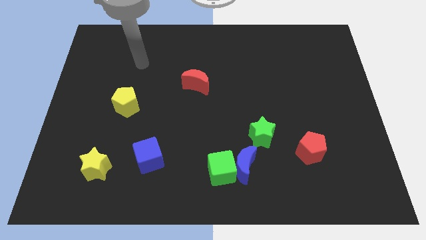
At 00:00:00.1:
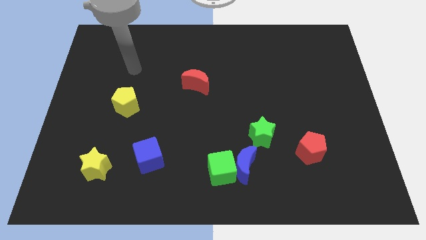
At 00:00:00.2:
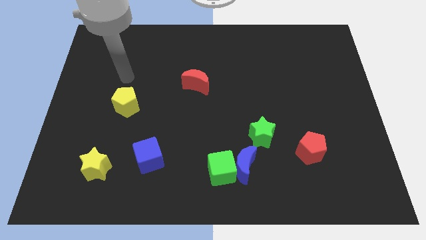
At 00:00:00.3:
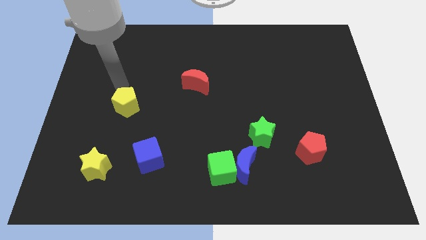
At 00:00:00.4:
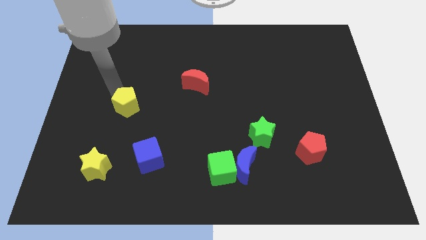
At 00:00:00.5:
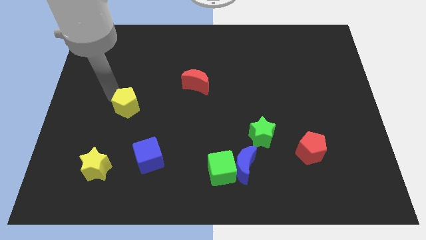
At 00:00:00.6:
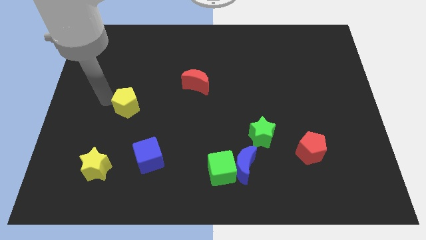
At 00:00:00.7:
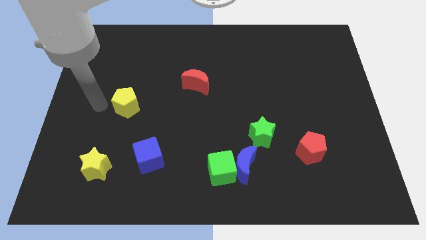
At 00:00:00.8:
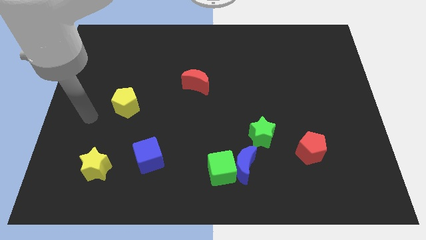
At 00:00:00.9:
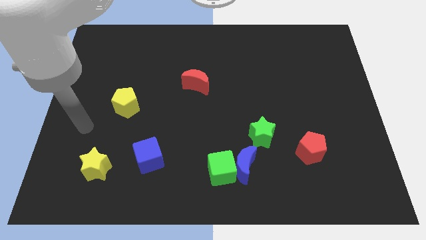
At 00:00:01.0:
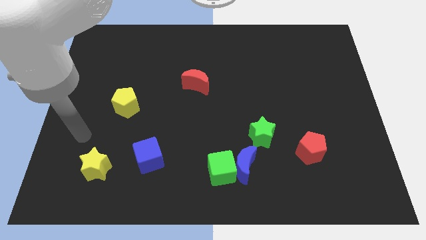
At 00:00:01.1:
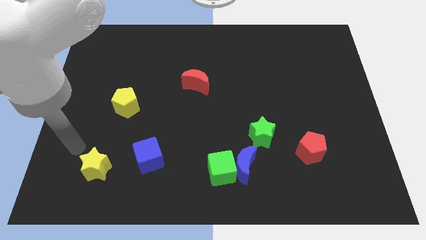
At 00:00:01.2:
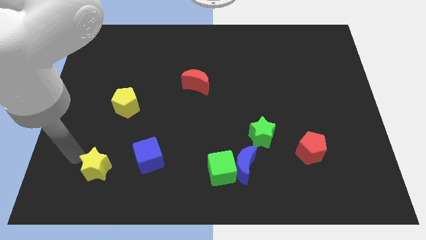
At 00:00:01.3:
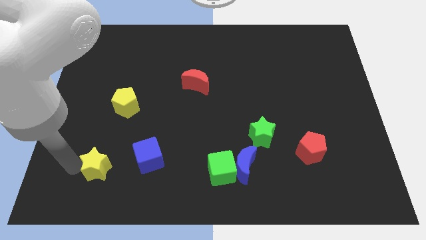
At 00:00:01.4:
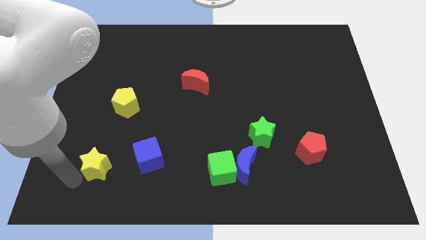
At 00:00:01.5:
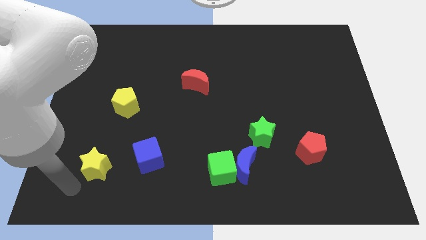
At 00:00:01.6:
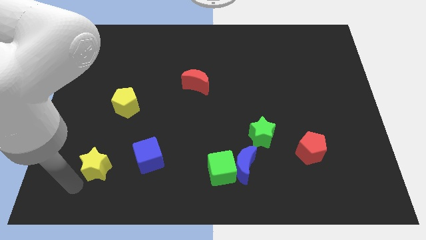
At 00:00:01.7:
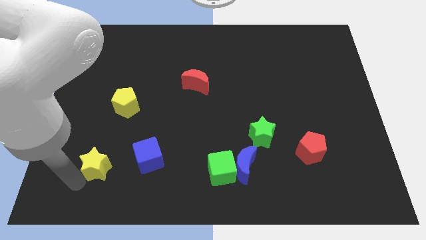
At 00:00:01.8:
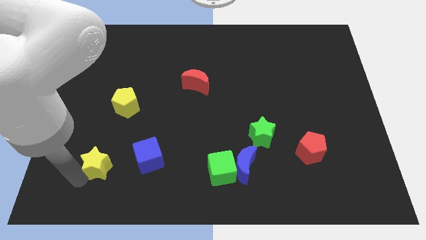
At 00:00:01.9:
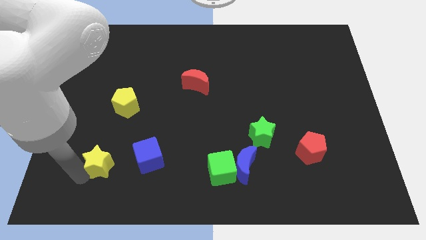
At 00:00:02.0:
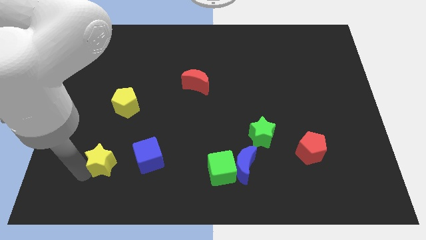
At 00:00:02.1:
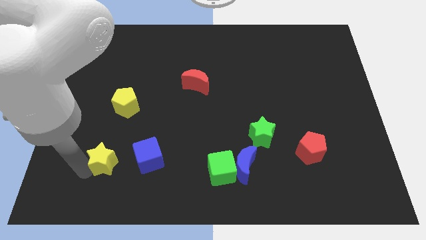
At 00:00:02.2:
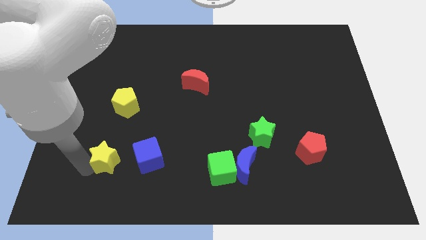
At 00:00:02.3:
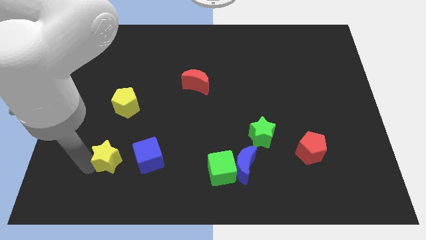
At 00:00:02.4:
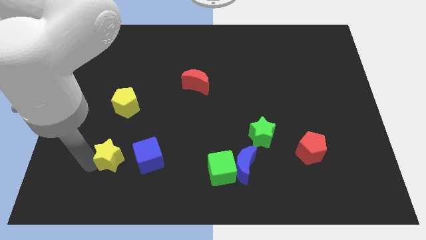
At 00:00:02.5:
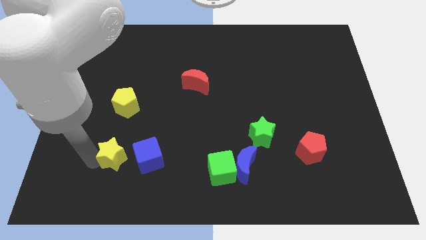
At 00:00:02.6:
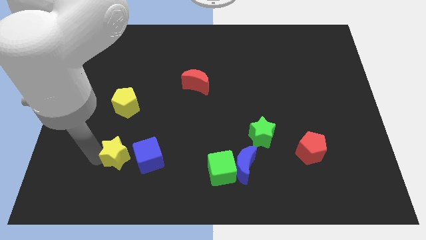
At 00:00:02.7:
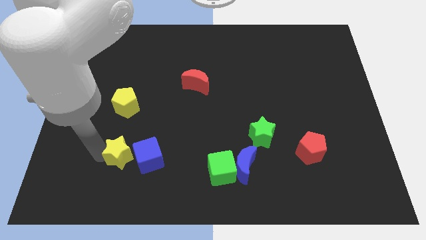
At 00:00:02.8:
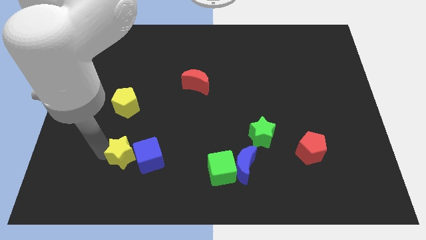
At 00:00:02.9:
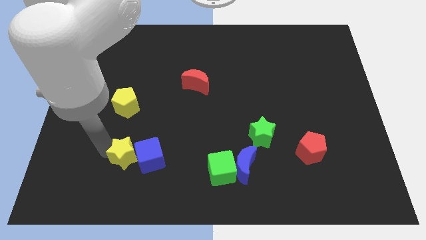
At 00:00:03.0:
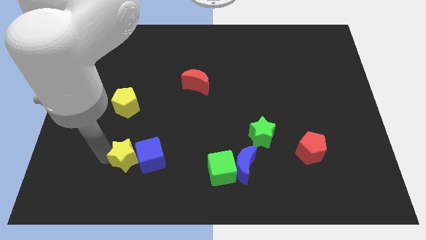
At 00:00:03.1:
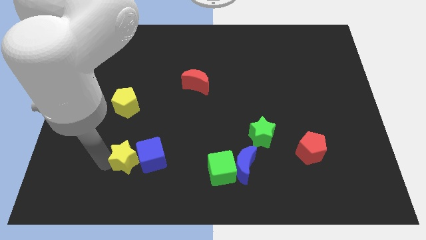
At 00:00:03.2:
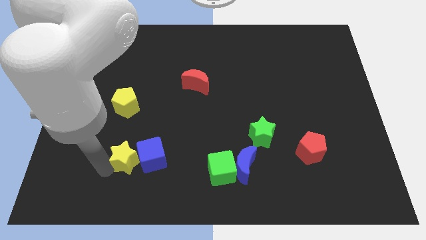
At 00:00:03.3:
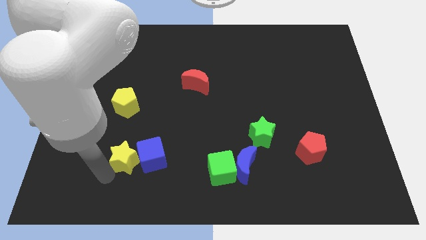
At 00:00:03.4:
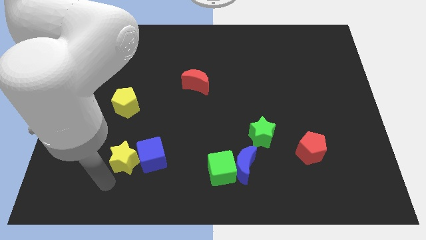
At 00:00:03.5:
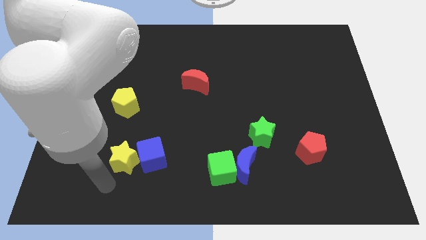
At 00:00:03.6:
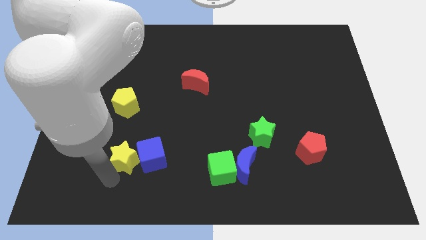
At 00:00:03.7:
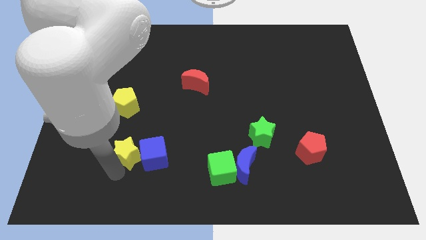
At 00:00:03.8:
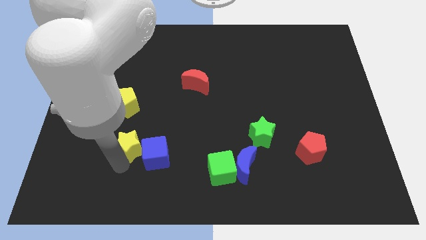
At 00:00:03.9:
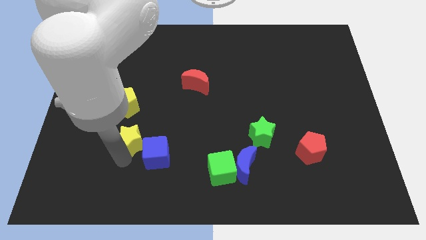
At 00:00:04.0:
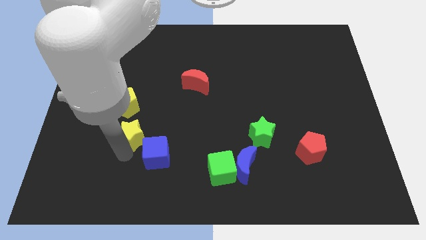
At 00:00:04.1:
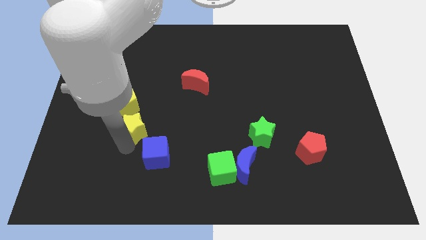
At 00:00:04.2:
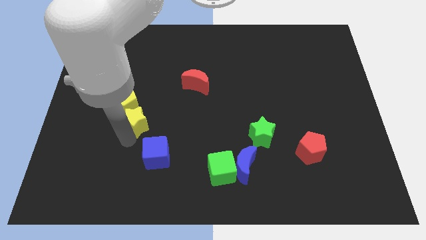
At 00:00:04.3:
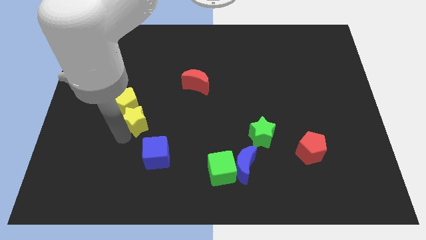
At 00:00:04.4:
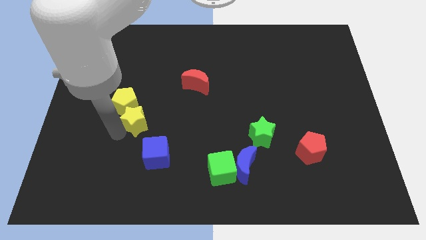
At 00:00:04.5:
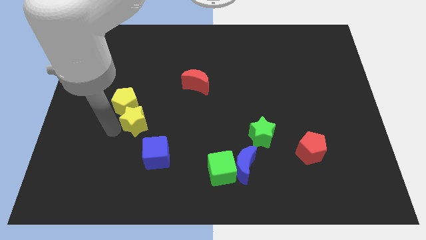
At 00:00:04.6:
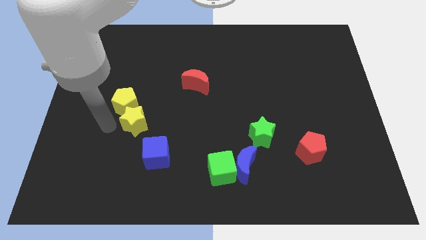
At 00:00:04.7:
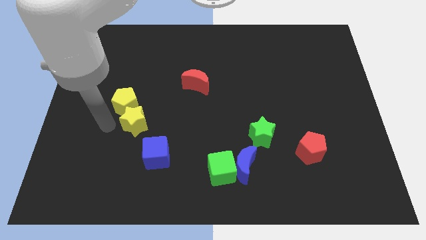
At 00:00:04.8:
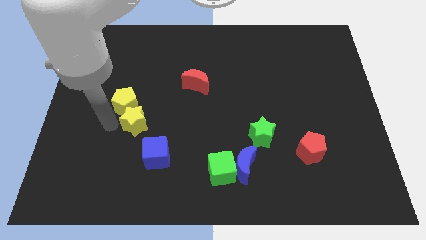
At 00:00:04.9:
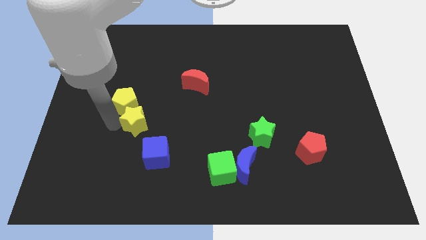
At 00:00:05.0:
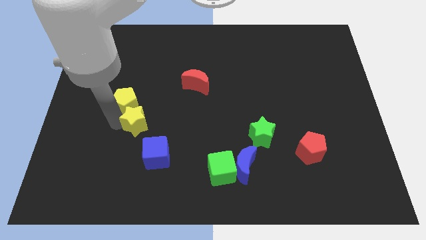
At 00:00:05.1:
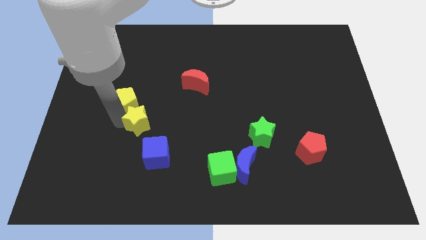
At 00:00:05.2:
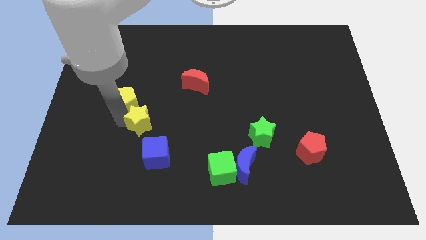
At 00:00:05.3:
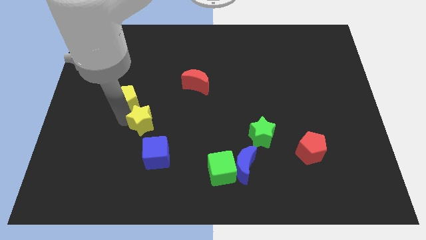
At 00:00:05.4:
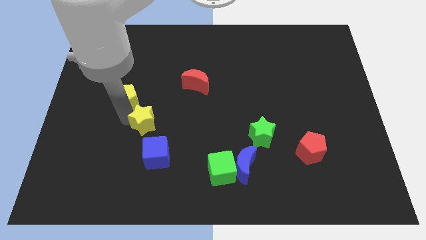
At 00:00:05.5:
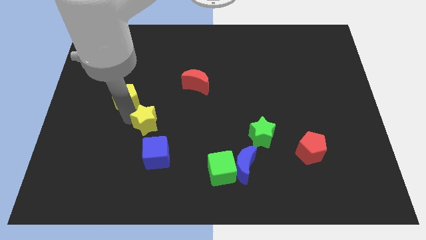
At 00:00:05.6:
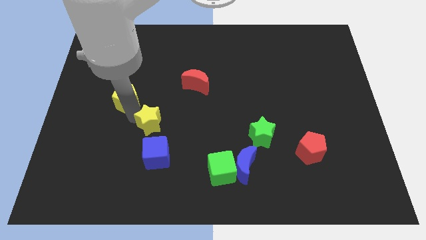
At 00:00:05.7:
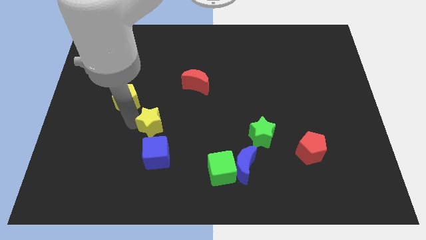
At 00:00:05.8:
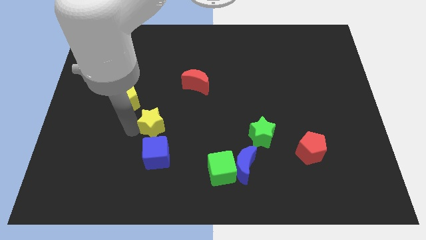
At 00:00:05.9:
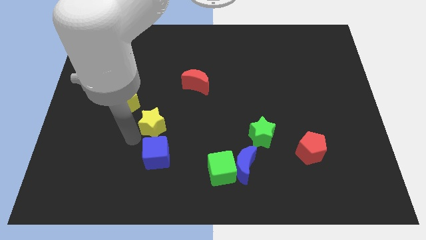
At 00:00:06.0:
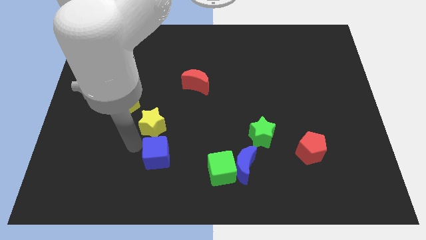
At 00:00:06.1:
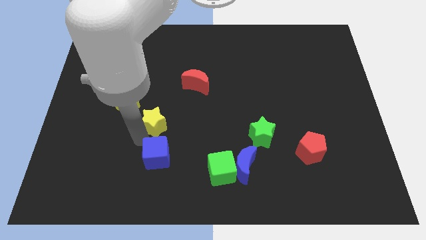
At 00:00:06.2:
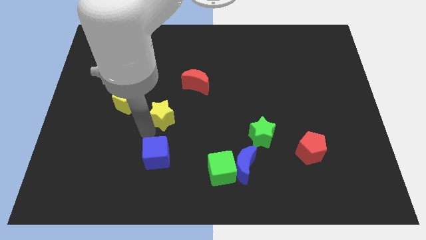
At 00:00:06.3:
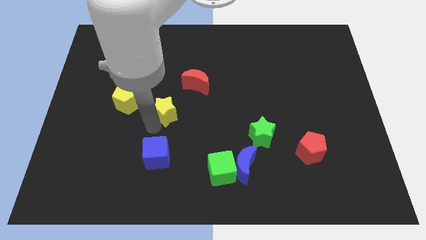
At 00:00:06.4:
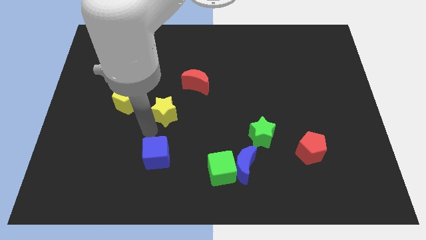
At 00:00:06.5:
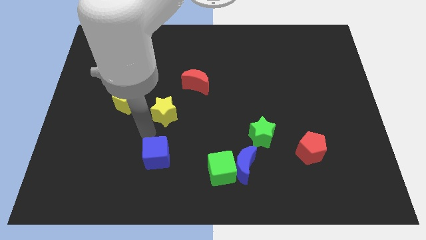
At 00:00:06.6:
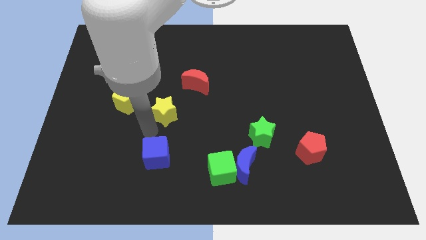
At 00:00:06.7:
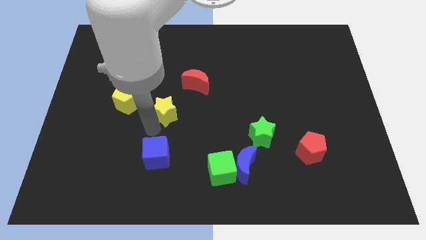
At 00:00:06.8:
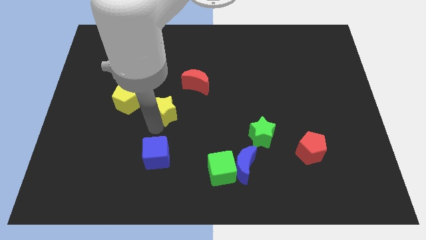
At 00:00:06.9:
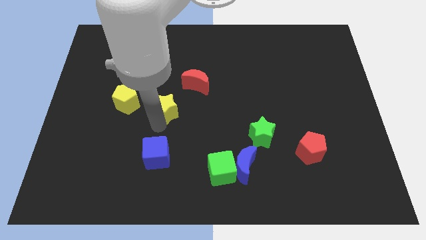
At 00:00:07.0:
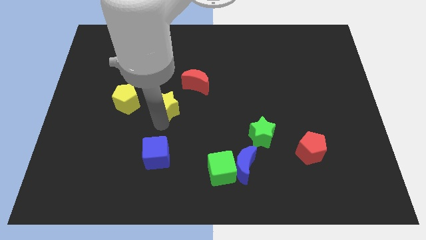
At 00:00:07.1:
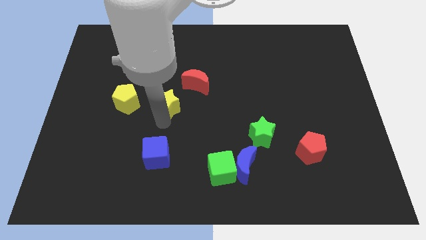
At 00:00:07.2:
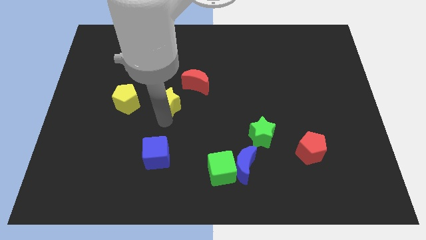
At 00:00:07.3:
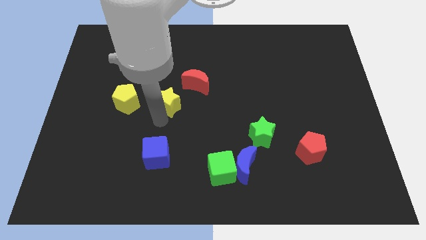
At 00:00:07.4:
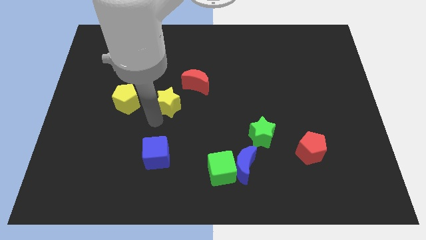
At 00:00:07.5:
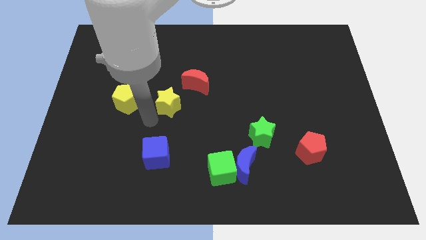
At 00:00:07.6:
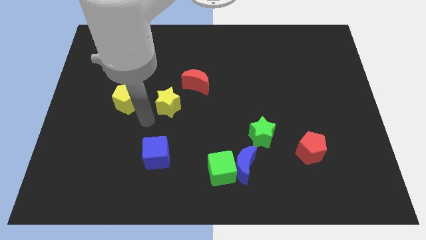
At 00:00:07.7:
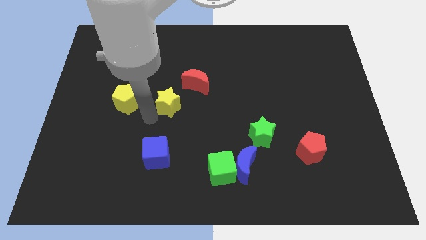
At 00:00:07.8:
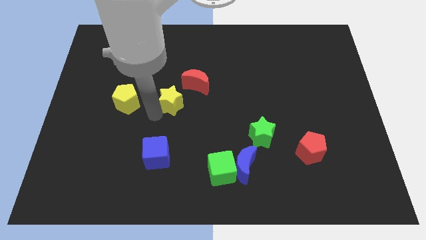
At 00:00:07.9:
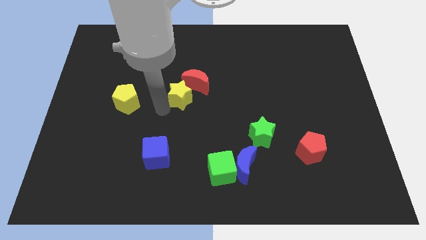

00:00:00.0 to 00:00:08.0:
move the yellow star towards the red moon
